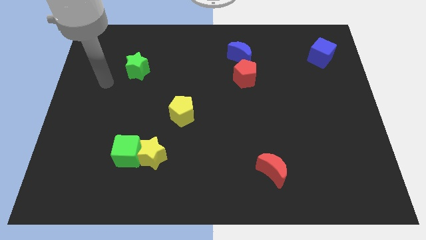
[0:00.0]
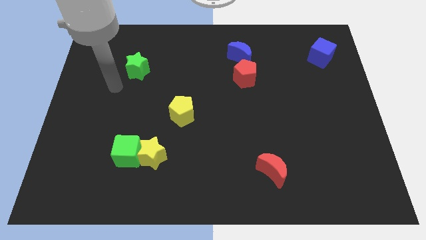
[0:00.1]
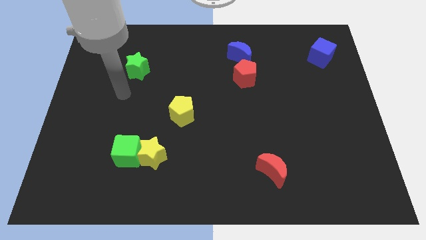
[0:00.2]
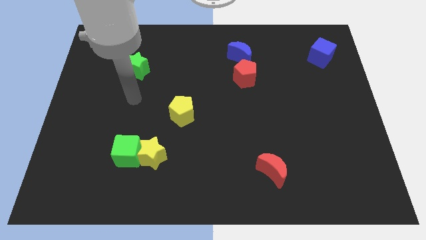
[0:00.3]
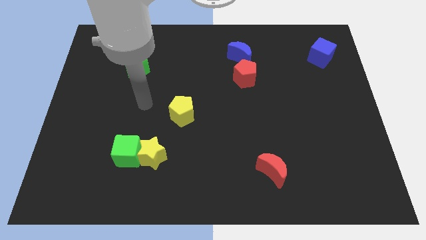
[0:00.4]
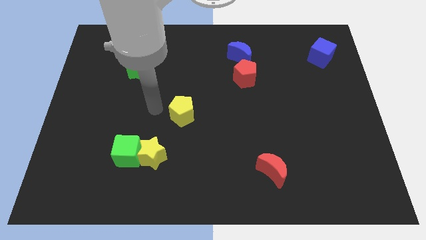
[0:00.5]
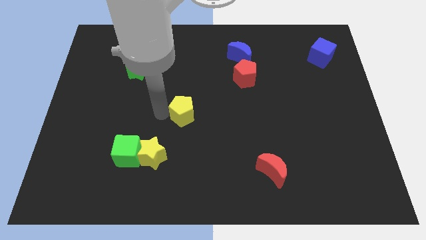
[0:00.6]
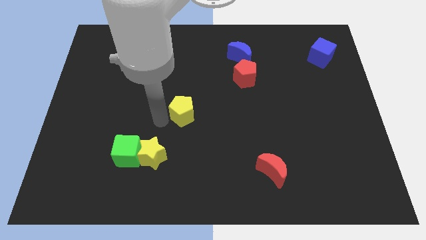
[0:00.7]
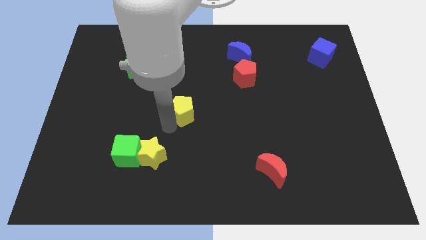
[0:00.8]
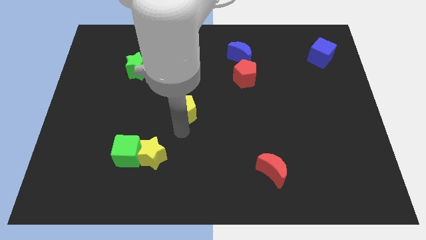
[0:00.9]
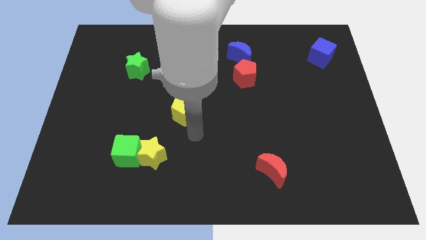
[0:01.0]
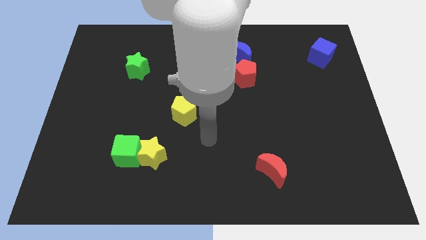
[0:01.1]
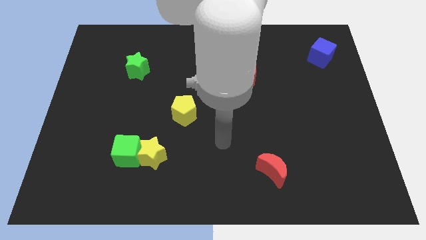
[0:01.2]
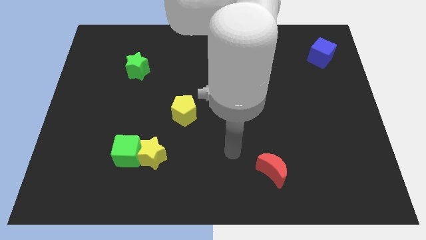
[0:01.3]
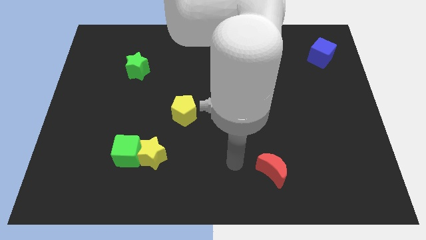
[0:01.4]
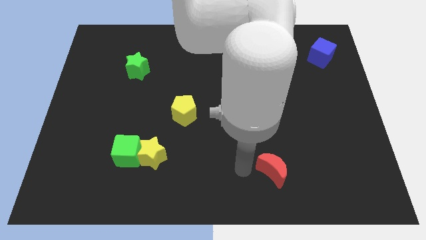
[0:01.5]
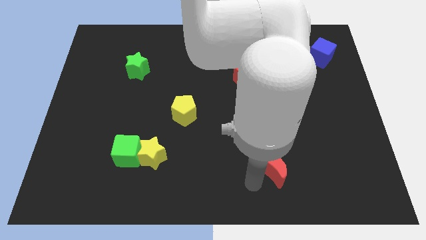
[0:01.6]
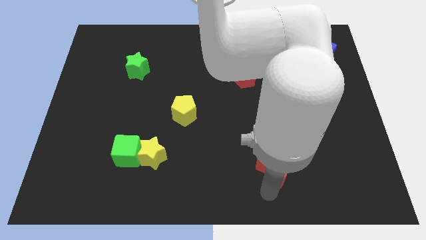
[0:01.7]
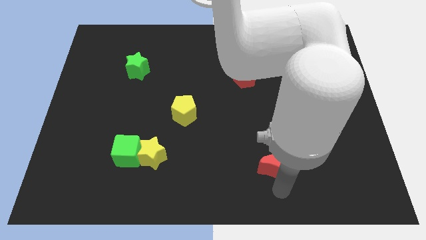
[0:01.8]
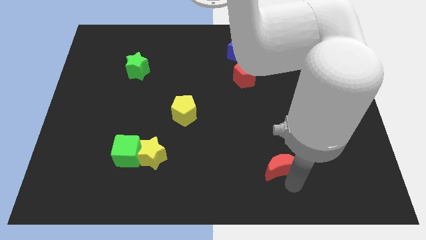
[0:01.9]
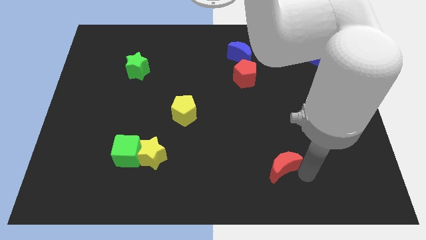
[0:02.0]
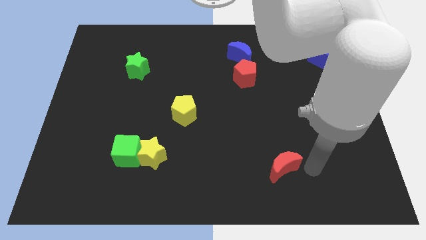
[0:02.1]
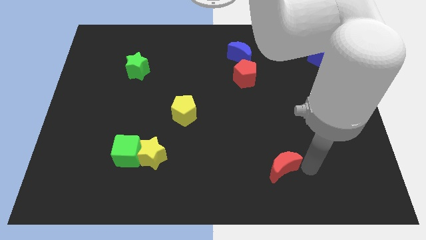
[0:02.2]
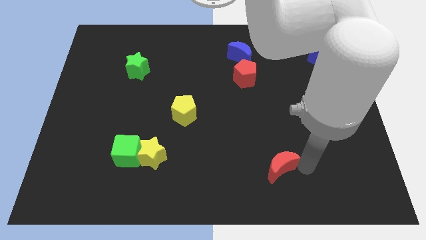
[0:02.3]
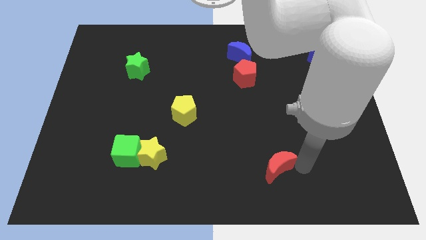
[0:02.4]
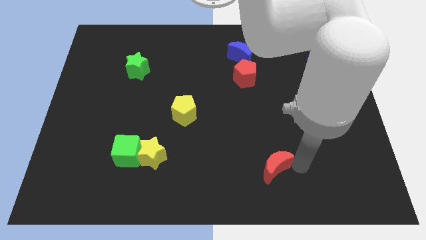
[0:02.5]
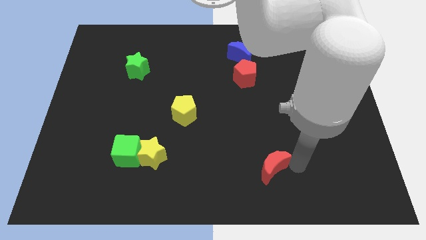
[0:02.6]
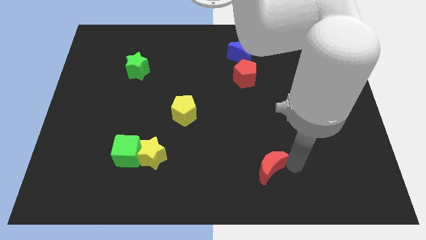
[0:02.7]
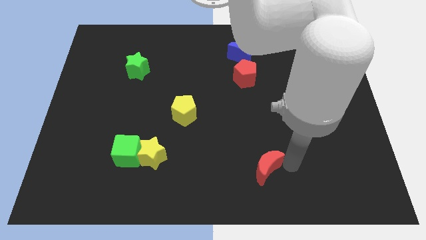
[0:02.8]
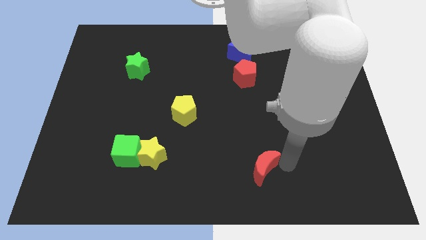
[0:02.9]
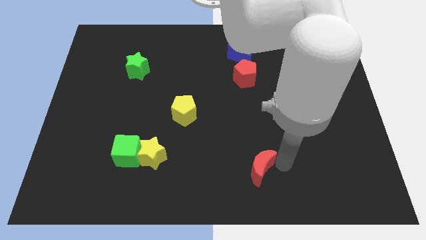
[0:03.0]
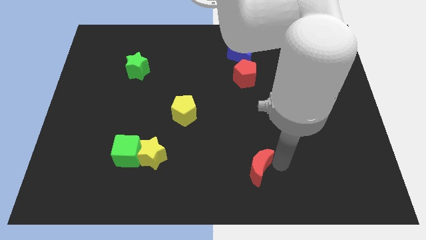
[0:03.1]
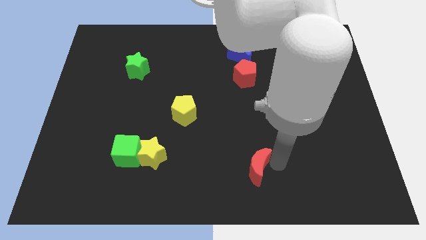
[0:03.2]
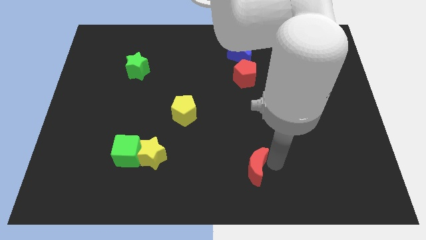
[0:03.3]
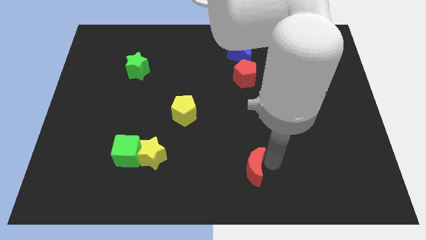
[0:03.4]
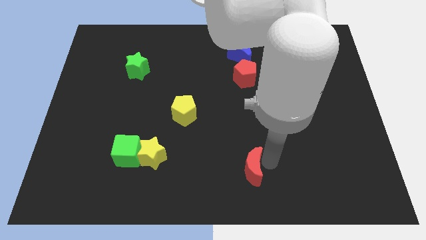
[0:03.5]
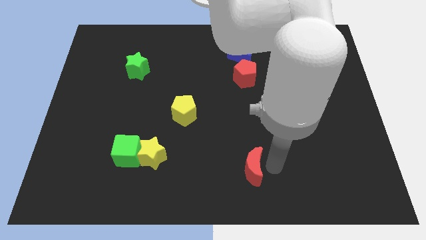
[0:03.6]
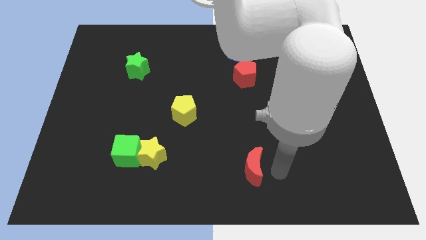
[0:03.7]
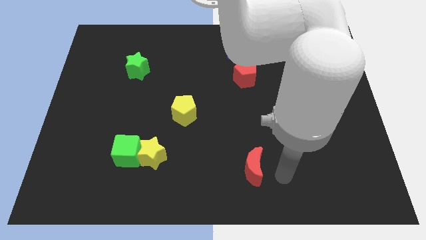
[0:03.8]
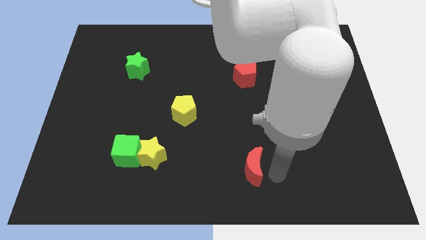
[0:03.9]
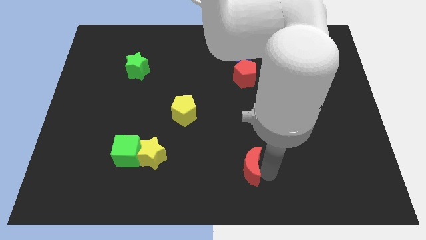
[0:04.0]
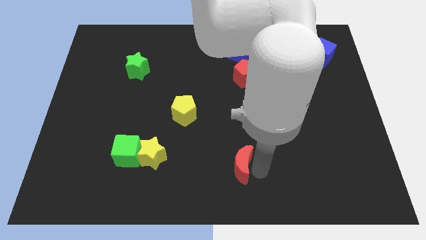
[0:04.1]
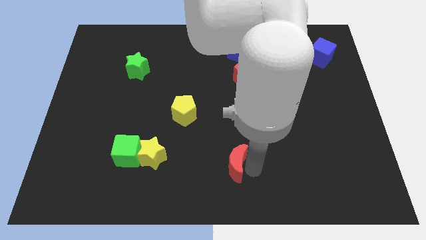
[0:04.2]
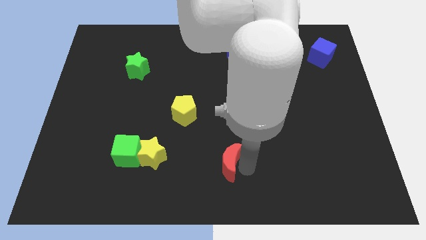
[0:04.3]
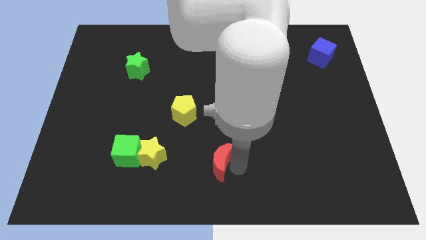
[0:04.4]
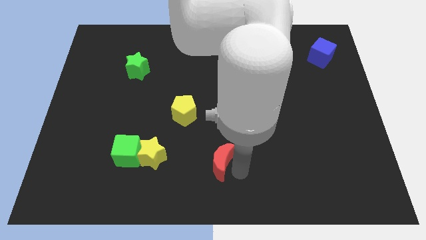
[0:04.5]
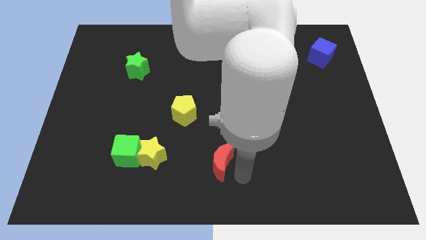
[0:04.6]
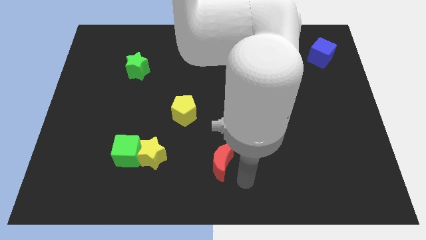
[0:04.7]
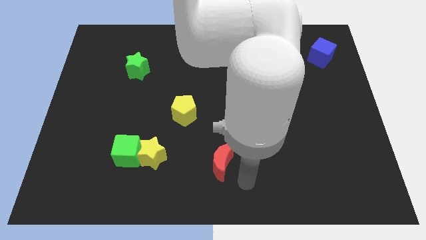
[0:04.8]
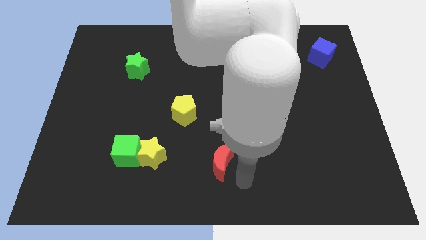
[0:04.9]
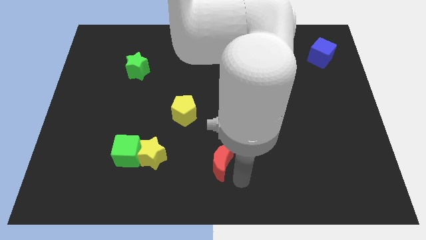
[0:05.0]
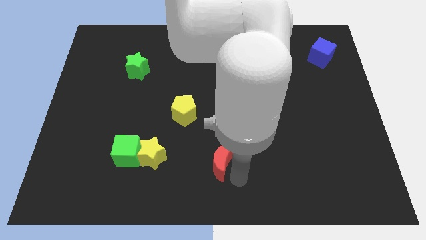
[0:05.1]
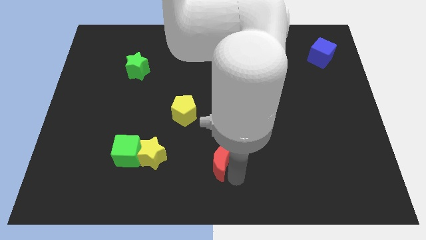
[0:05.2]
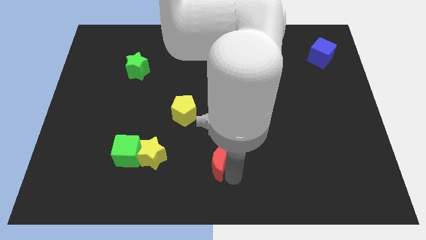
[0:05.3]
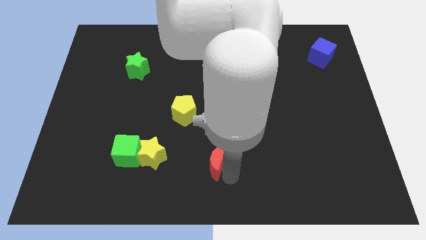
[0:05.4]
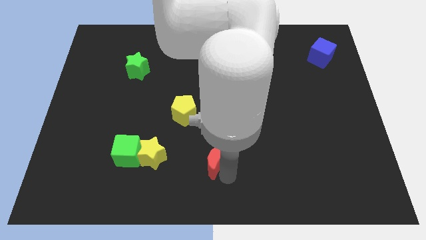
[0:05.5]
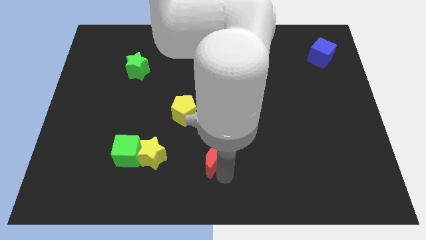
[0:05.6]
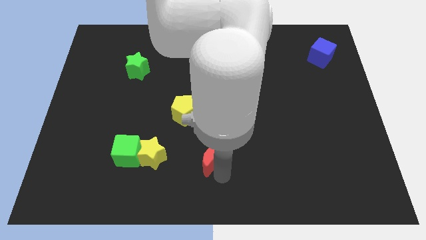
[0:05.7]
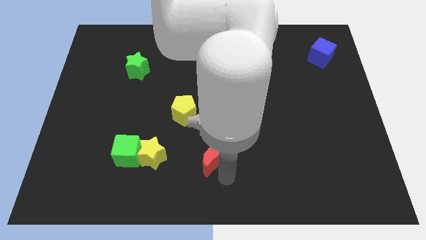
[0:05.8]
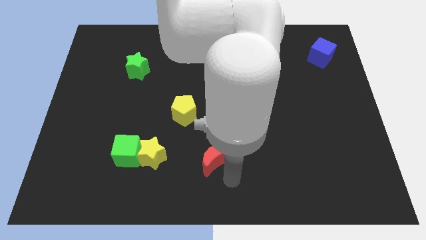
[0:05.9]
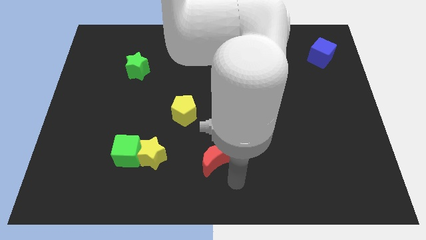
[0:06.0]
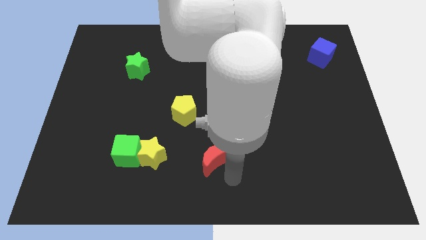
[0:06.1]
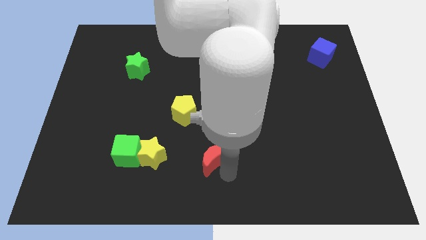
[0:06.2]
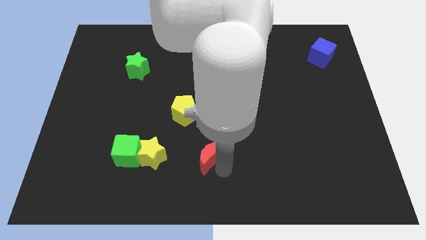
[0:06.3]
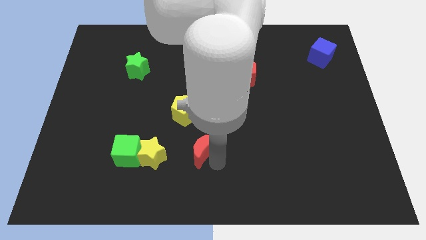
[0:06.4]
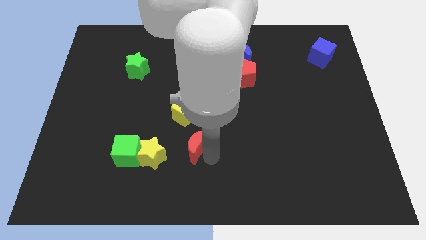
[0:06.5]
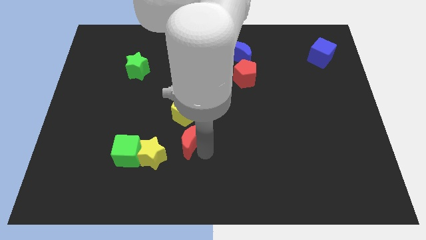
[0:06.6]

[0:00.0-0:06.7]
put the red moon to the top right side of the yellow star
